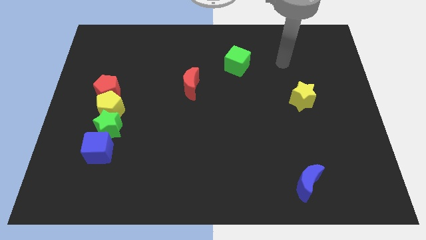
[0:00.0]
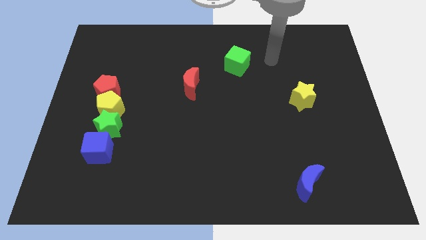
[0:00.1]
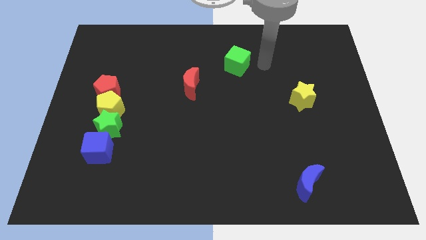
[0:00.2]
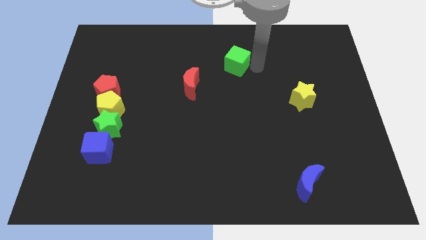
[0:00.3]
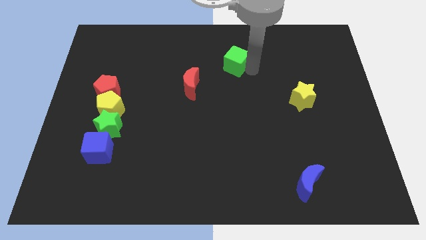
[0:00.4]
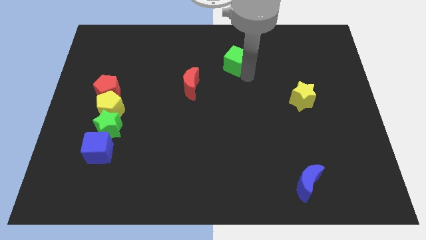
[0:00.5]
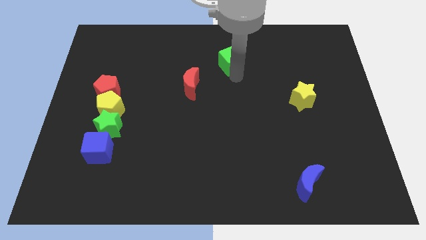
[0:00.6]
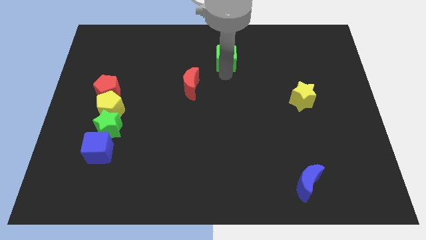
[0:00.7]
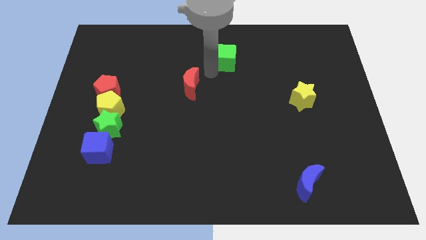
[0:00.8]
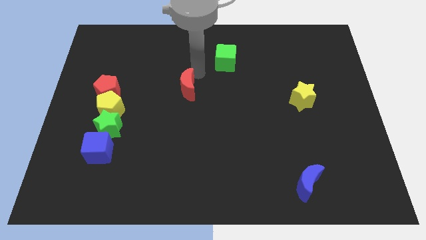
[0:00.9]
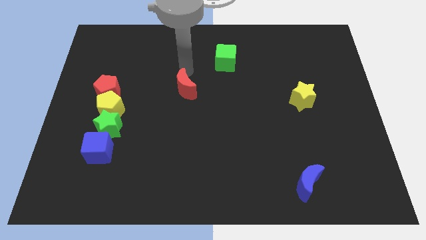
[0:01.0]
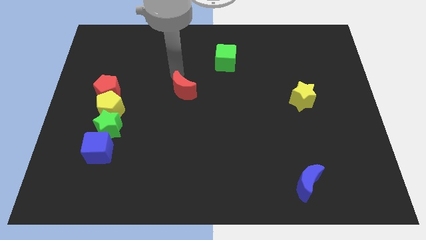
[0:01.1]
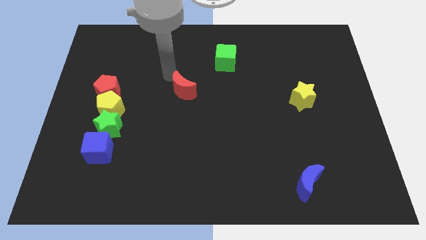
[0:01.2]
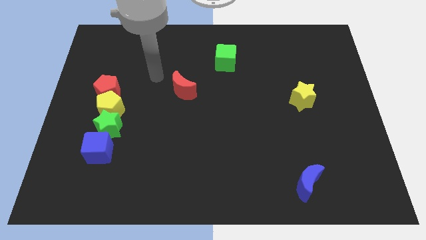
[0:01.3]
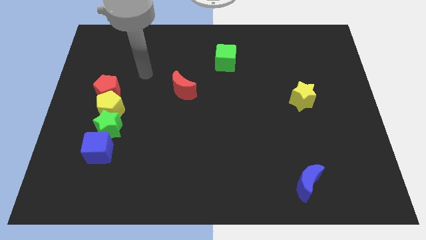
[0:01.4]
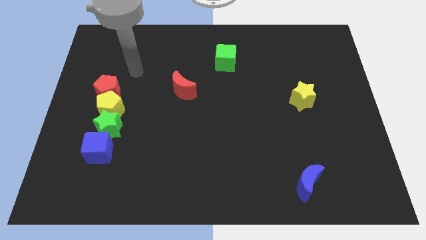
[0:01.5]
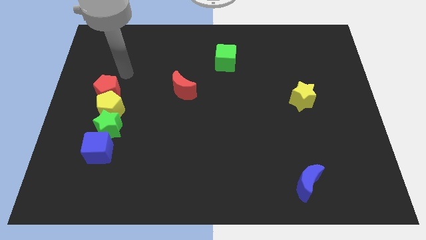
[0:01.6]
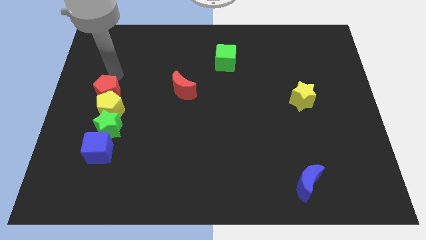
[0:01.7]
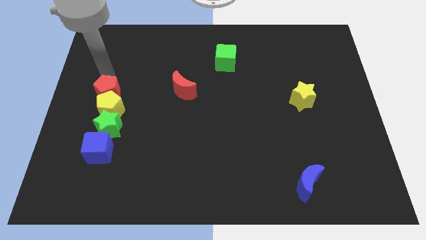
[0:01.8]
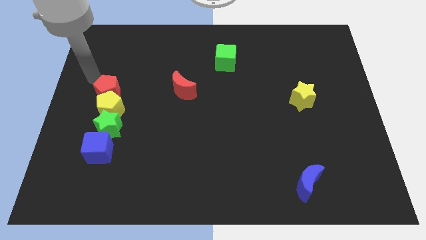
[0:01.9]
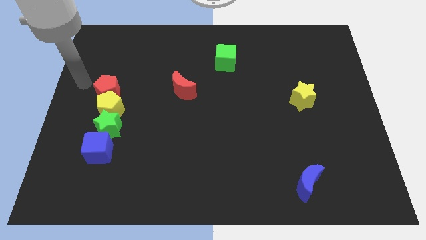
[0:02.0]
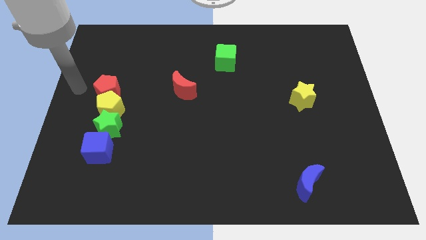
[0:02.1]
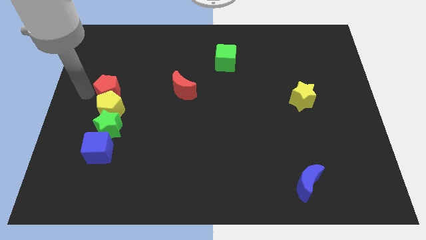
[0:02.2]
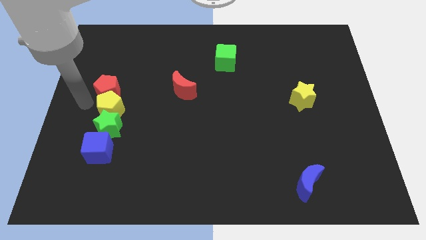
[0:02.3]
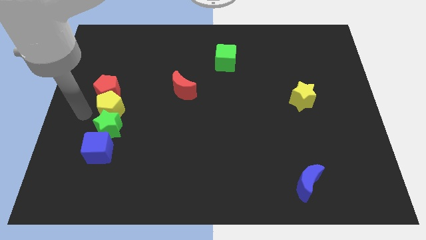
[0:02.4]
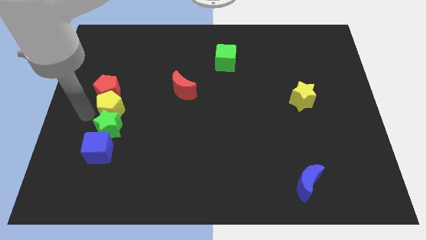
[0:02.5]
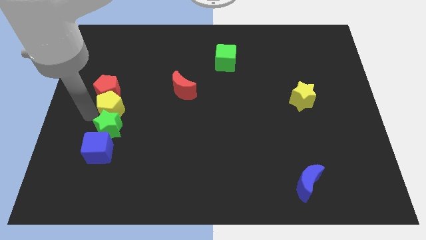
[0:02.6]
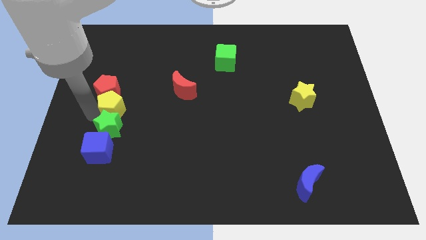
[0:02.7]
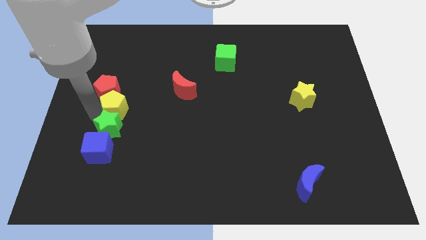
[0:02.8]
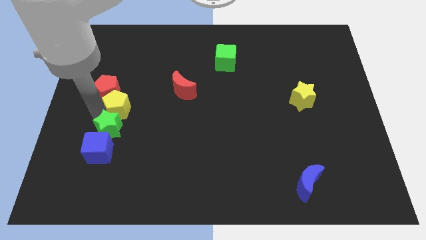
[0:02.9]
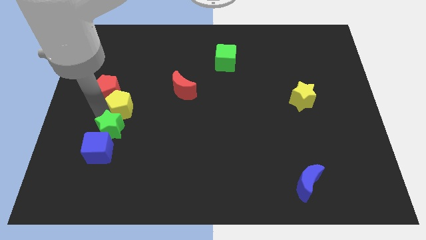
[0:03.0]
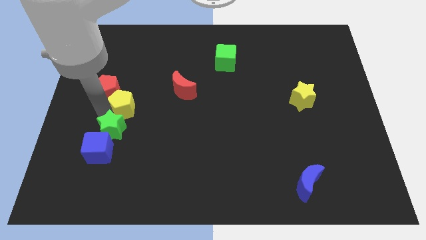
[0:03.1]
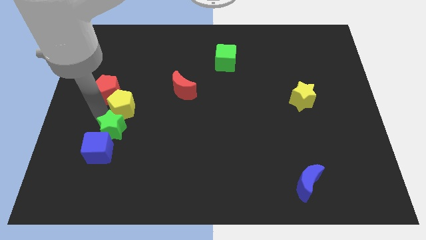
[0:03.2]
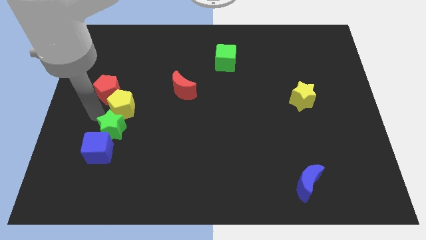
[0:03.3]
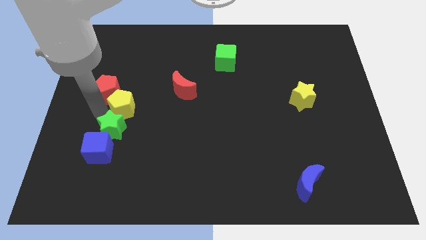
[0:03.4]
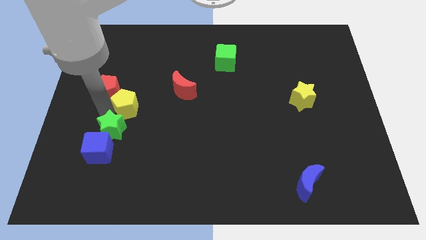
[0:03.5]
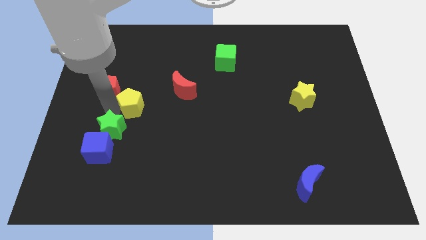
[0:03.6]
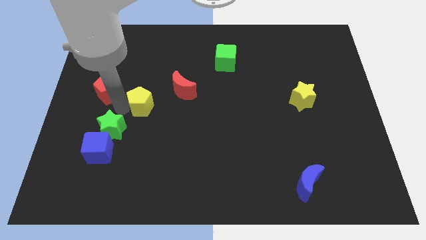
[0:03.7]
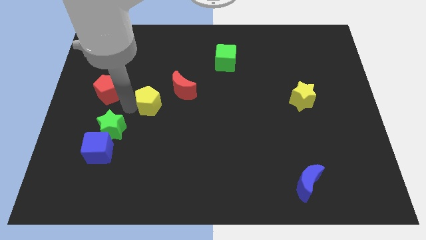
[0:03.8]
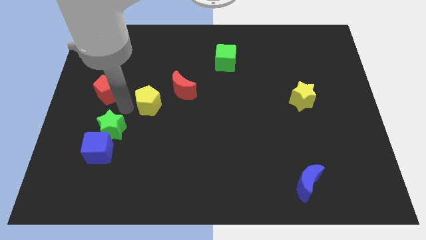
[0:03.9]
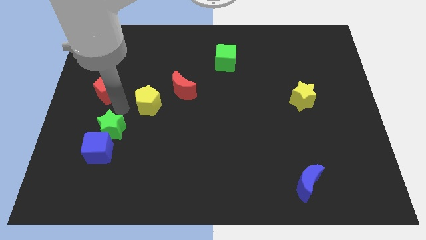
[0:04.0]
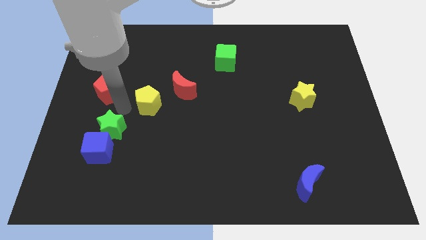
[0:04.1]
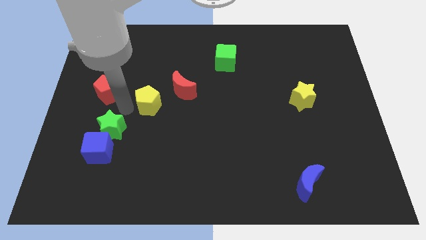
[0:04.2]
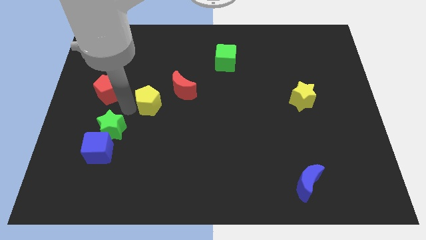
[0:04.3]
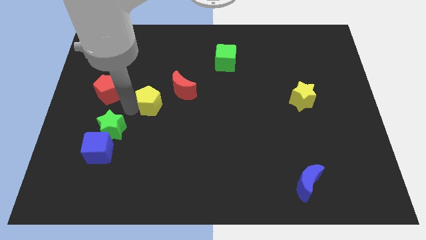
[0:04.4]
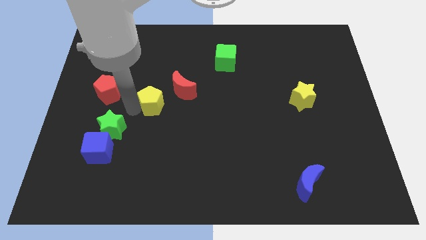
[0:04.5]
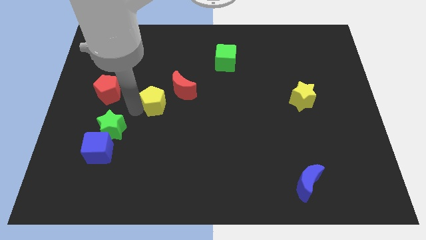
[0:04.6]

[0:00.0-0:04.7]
move the yellow pentagon away from the green star and red pentagon

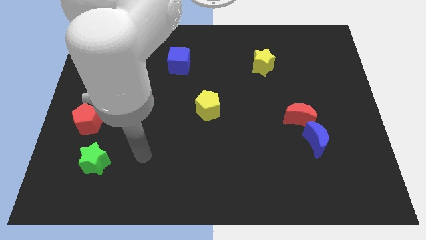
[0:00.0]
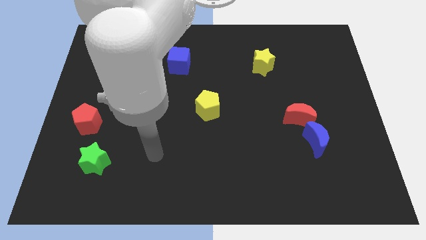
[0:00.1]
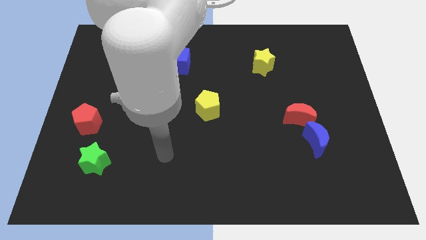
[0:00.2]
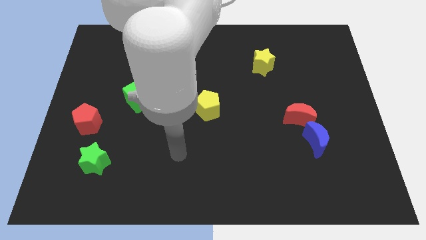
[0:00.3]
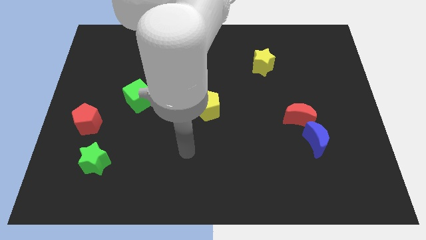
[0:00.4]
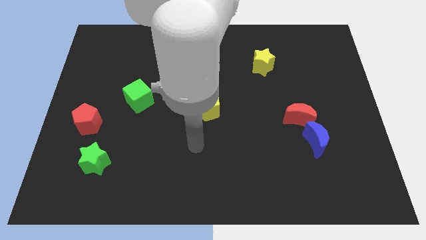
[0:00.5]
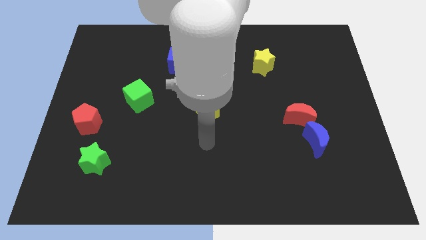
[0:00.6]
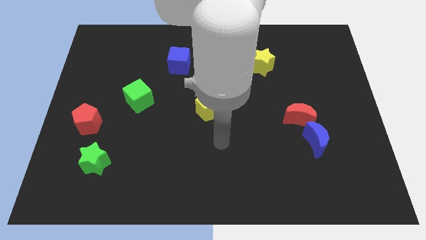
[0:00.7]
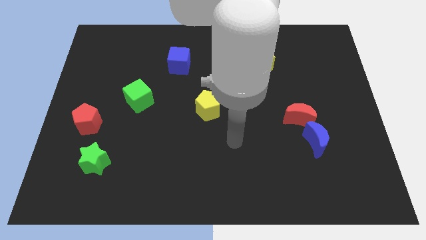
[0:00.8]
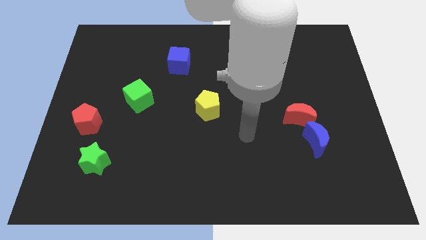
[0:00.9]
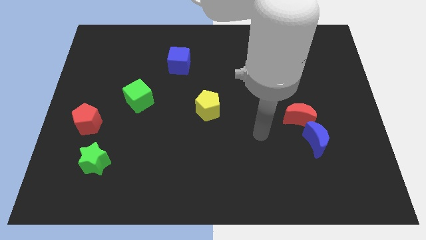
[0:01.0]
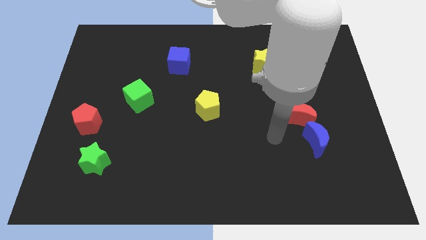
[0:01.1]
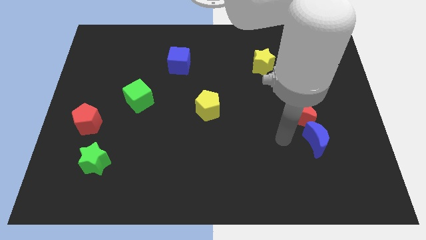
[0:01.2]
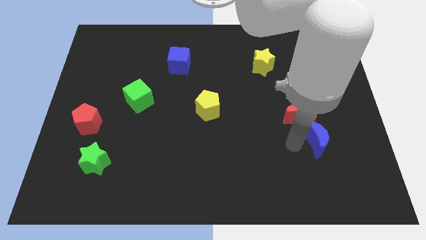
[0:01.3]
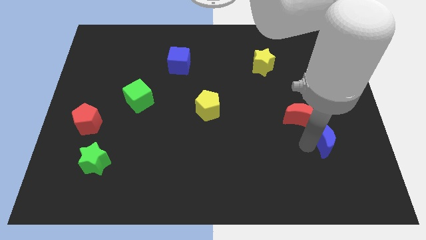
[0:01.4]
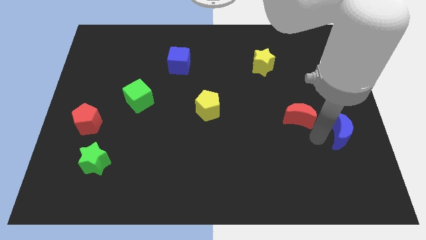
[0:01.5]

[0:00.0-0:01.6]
pull the red moon apart from the blue moon

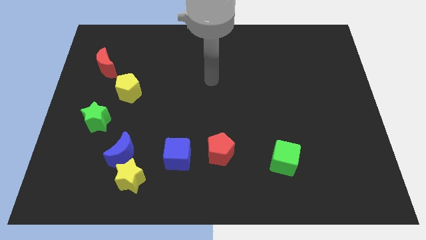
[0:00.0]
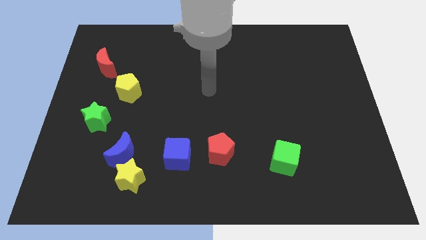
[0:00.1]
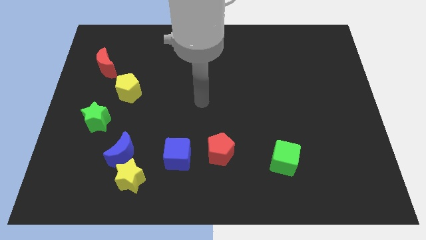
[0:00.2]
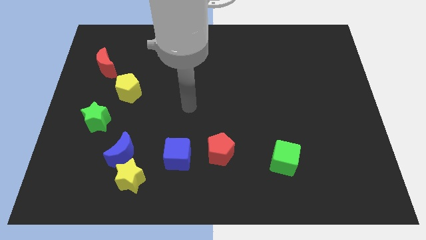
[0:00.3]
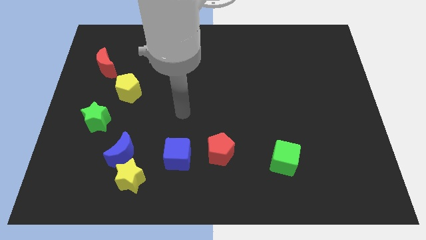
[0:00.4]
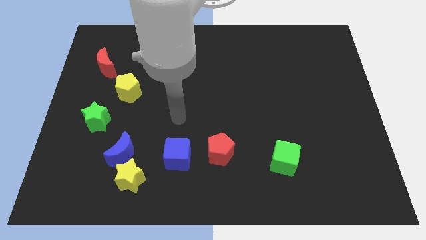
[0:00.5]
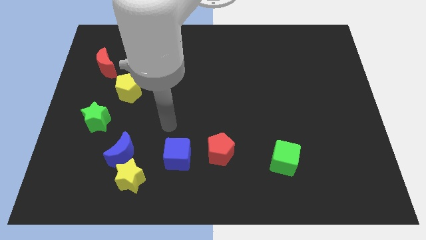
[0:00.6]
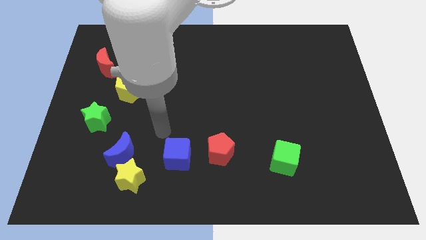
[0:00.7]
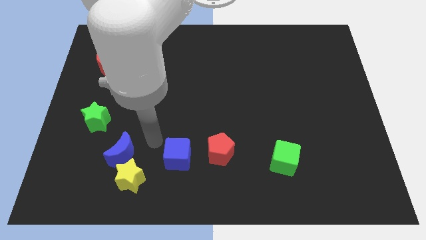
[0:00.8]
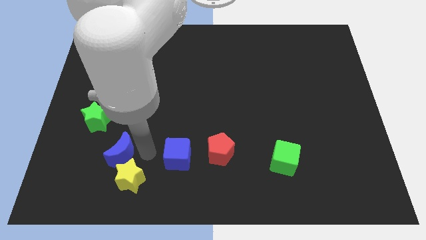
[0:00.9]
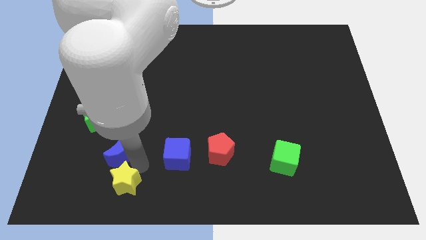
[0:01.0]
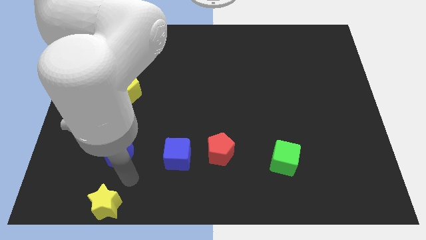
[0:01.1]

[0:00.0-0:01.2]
move the blue moon away from the yellow star

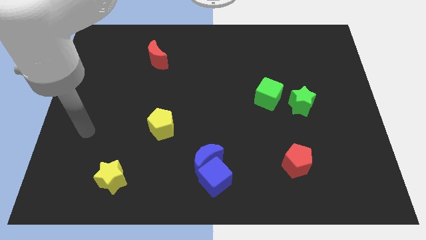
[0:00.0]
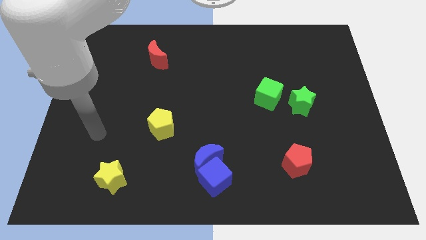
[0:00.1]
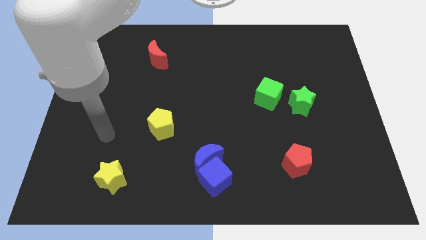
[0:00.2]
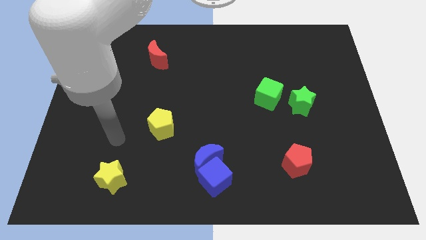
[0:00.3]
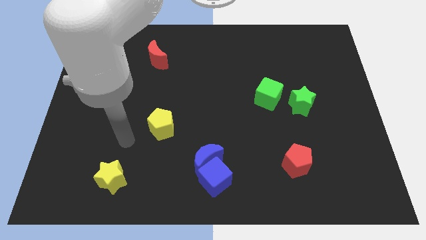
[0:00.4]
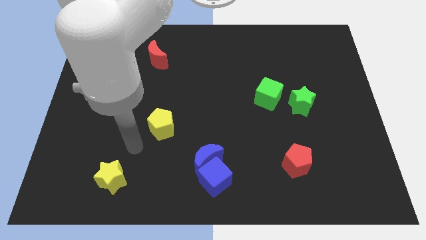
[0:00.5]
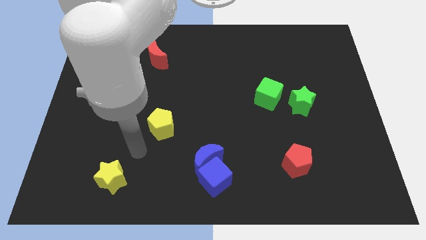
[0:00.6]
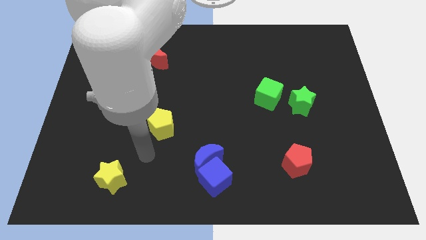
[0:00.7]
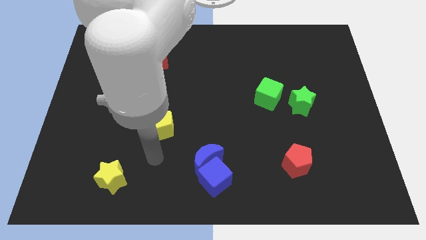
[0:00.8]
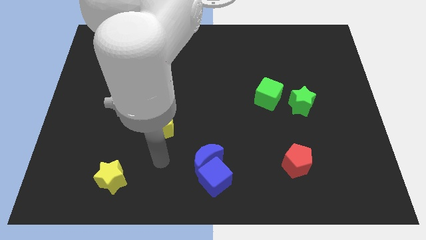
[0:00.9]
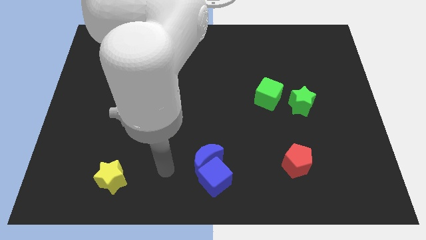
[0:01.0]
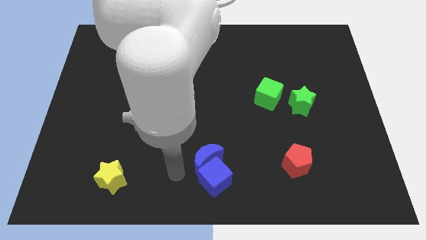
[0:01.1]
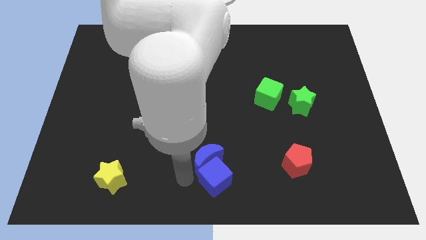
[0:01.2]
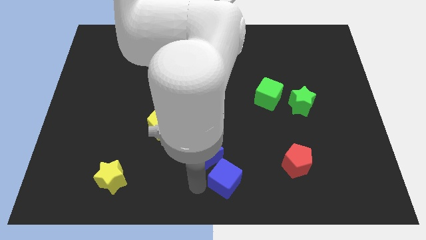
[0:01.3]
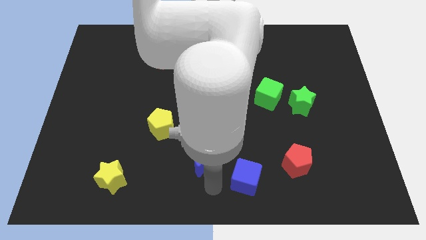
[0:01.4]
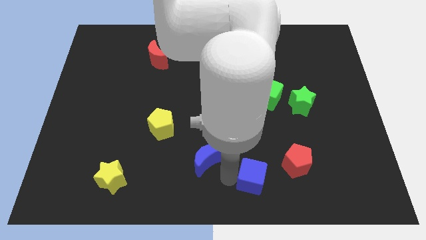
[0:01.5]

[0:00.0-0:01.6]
pull the blue moon apart from the blue cube

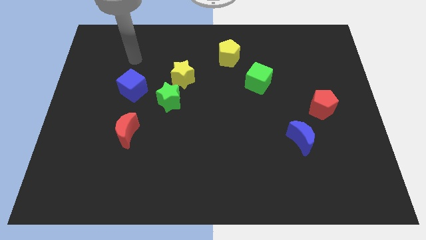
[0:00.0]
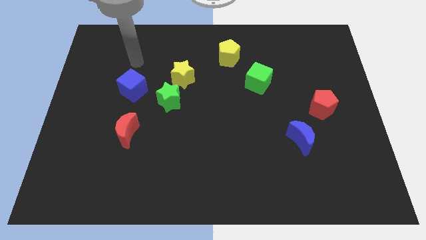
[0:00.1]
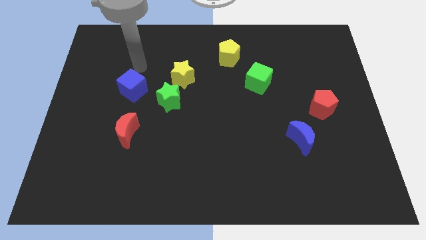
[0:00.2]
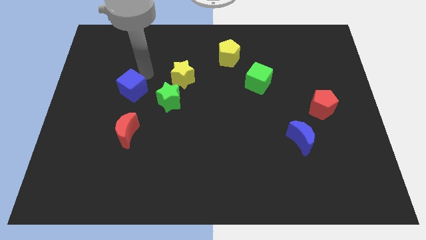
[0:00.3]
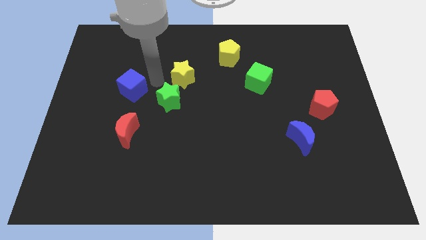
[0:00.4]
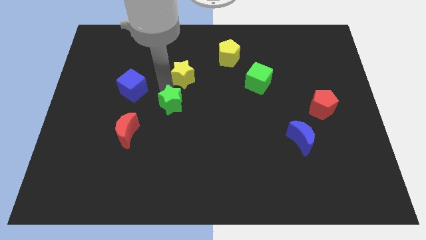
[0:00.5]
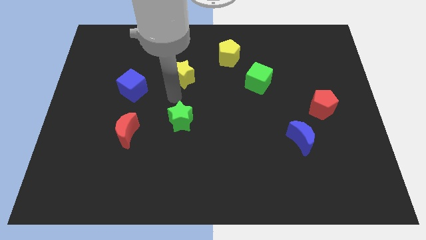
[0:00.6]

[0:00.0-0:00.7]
move the yellow star away from the green star
